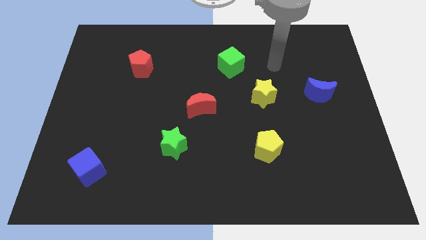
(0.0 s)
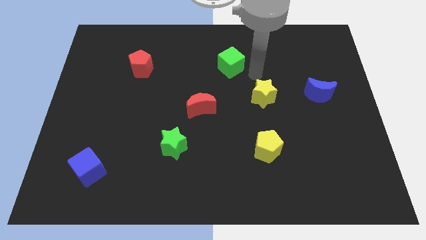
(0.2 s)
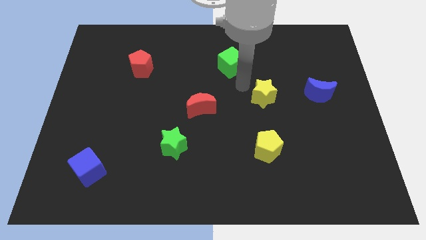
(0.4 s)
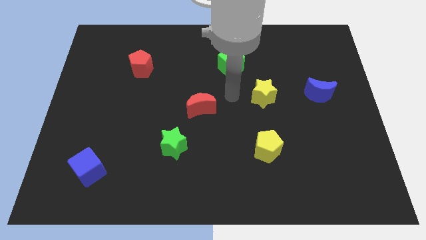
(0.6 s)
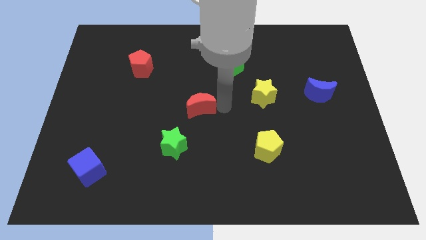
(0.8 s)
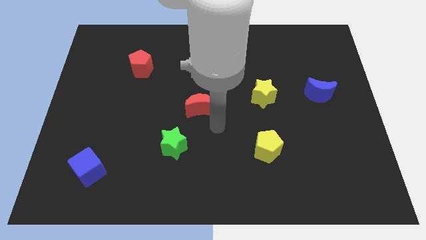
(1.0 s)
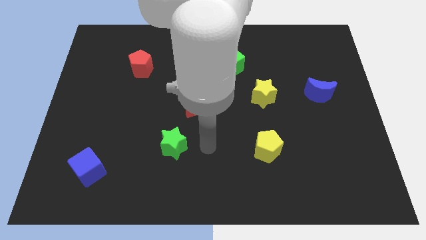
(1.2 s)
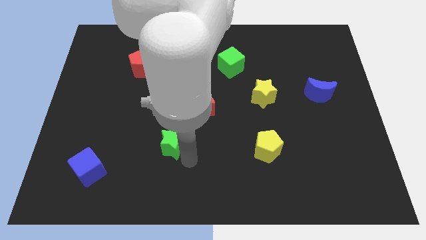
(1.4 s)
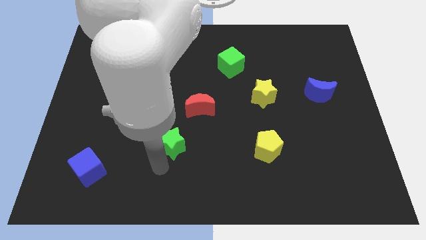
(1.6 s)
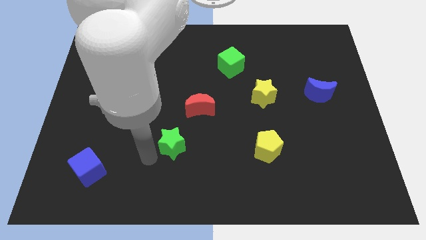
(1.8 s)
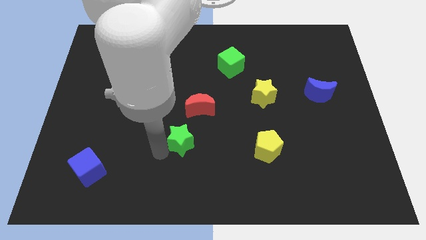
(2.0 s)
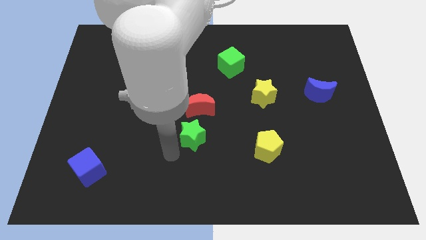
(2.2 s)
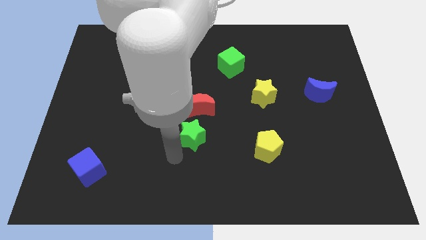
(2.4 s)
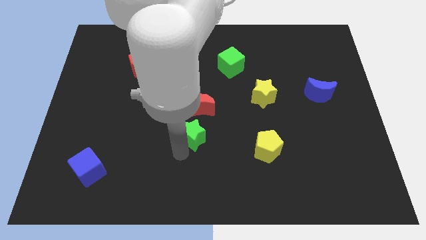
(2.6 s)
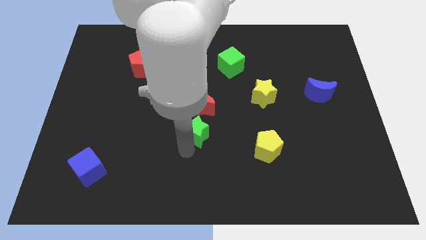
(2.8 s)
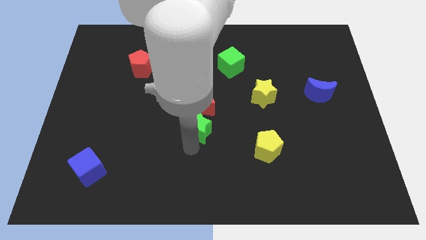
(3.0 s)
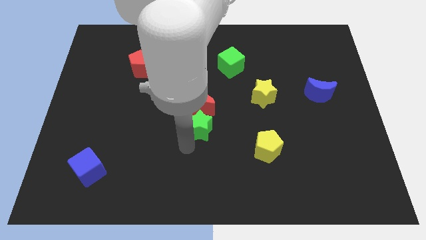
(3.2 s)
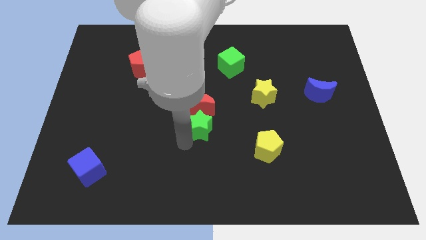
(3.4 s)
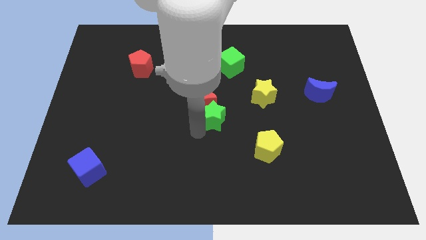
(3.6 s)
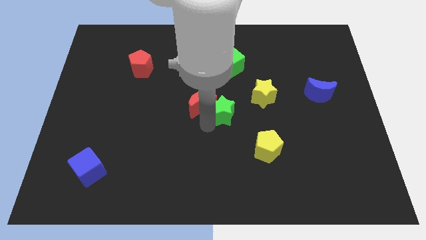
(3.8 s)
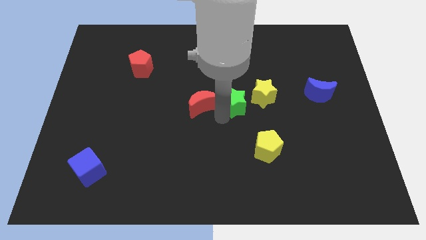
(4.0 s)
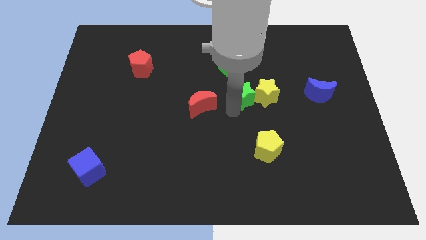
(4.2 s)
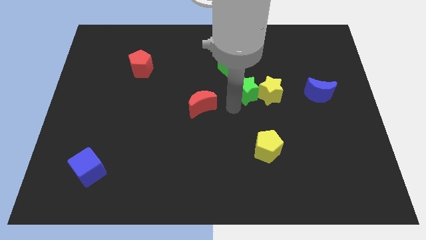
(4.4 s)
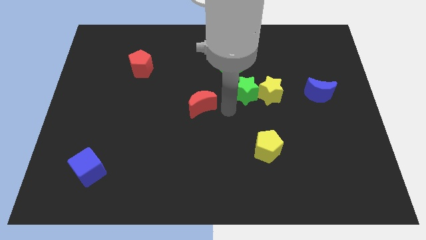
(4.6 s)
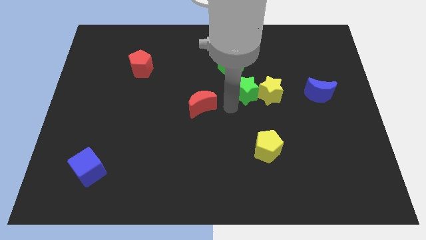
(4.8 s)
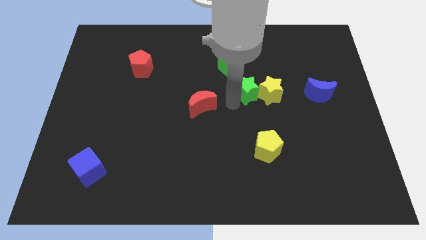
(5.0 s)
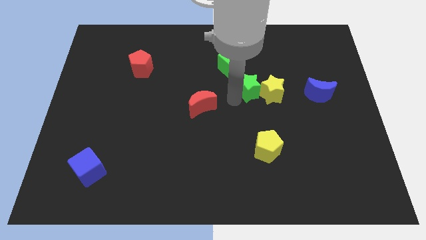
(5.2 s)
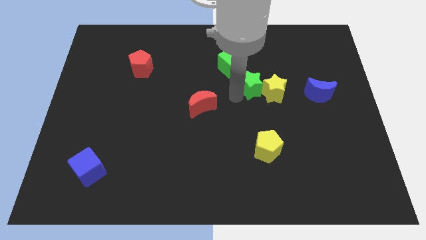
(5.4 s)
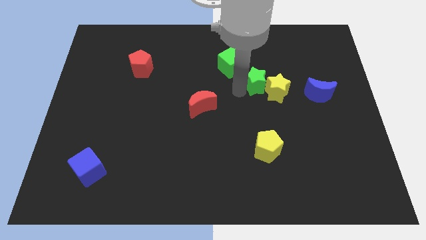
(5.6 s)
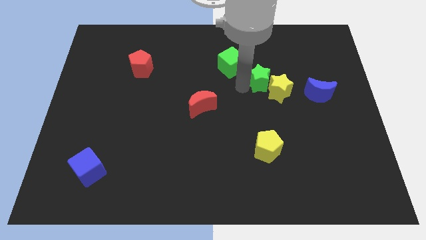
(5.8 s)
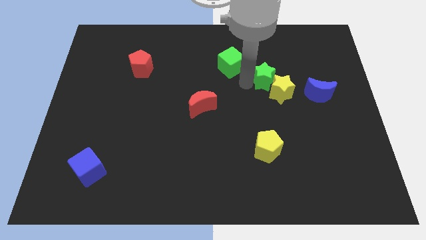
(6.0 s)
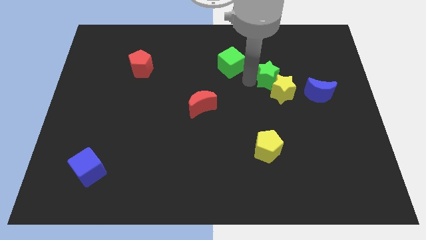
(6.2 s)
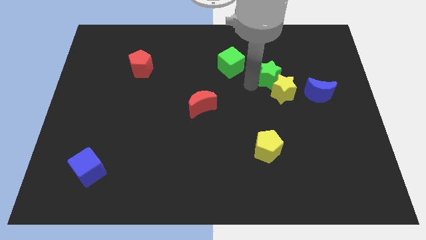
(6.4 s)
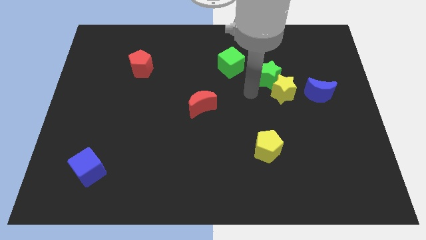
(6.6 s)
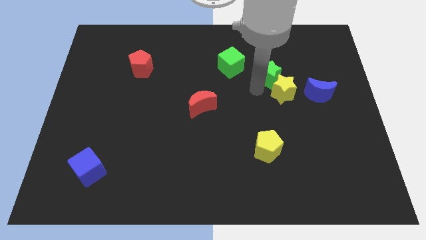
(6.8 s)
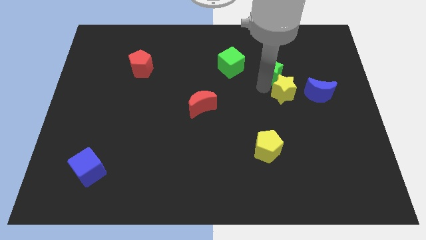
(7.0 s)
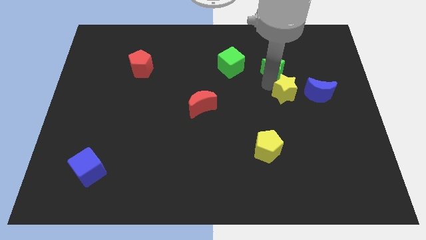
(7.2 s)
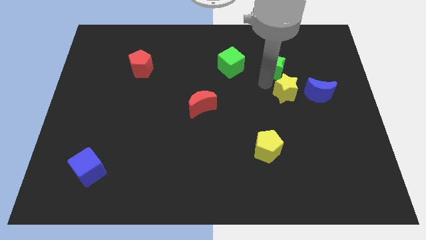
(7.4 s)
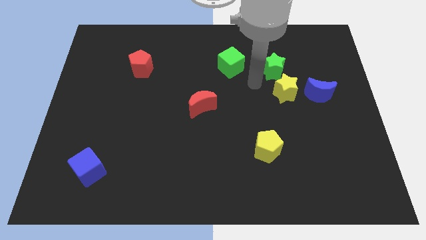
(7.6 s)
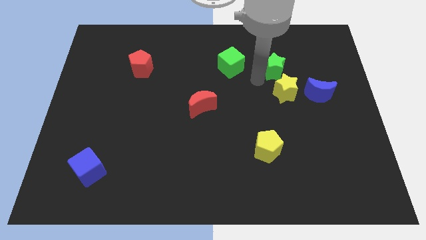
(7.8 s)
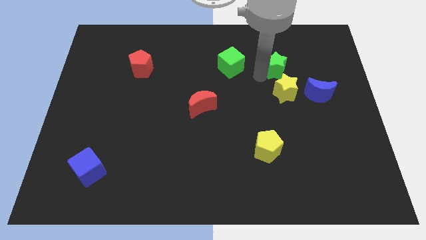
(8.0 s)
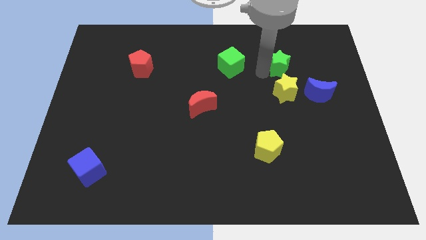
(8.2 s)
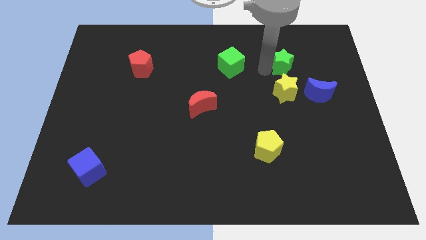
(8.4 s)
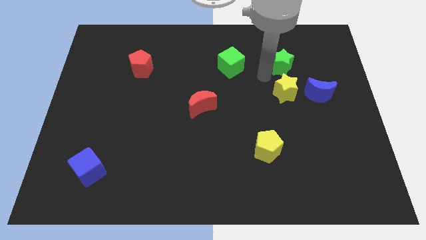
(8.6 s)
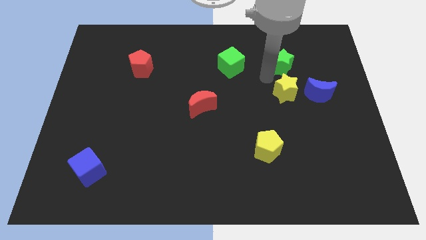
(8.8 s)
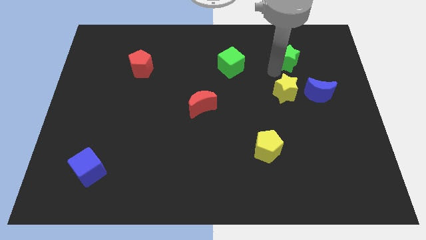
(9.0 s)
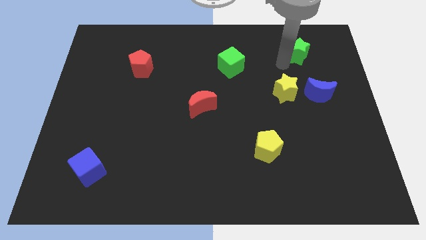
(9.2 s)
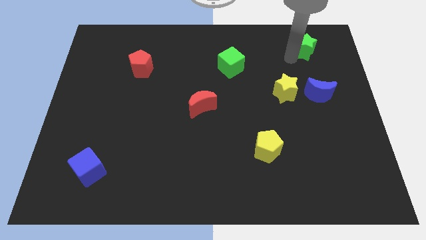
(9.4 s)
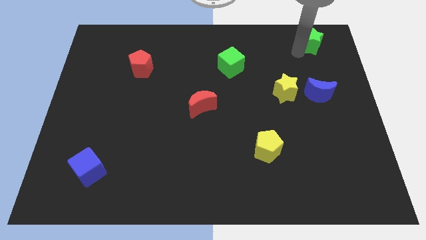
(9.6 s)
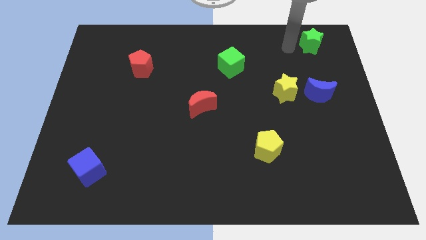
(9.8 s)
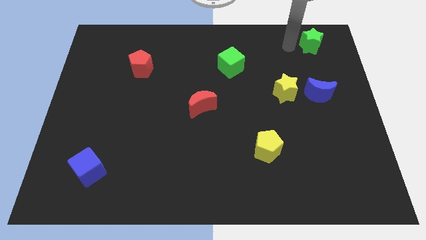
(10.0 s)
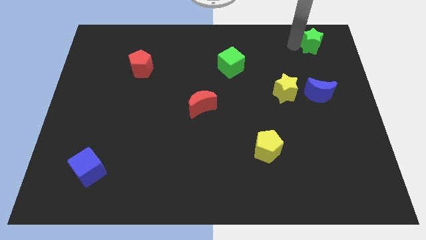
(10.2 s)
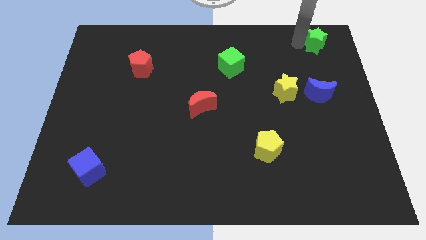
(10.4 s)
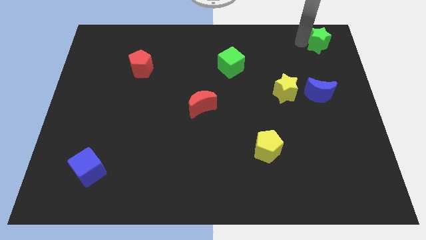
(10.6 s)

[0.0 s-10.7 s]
move the green star to the top right

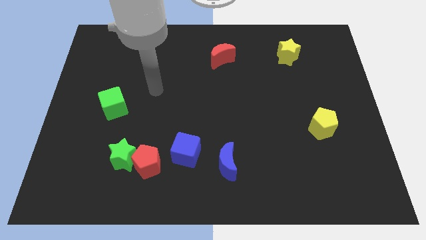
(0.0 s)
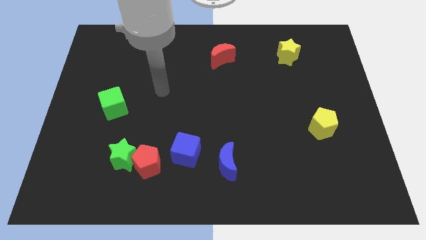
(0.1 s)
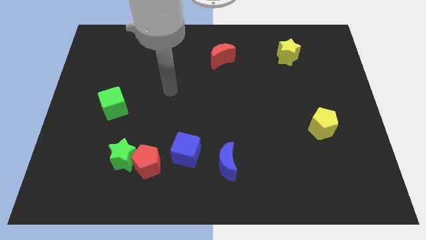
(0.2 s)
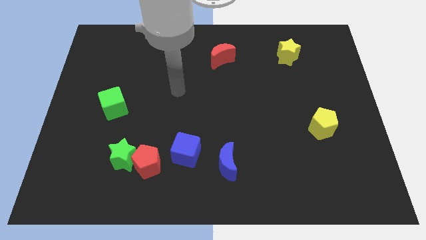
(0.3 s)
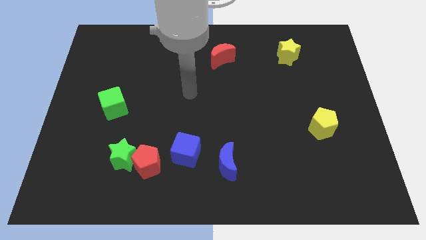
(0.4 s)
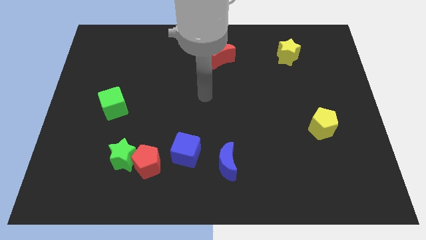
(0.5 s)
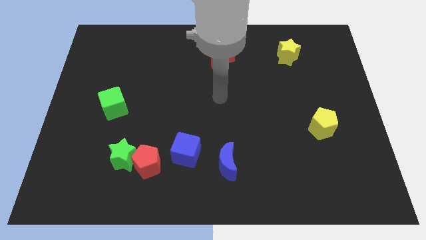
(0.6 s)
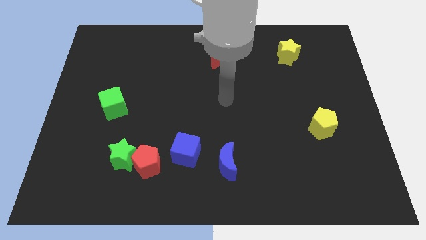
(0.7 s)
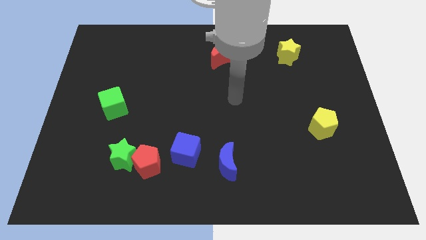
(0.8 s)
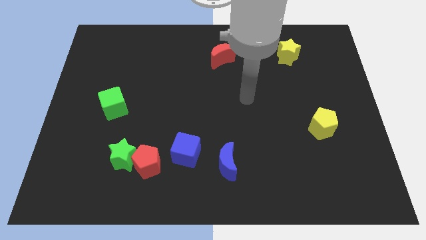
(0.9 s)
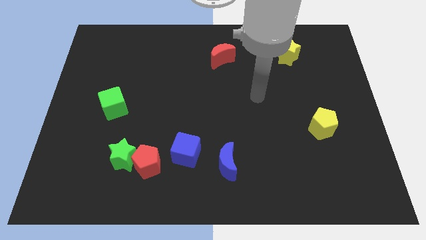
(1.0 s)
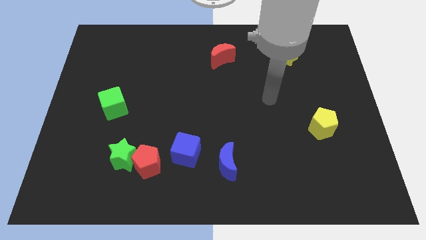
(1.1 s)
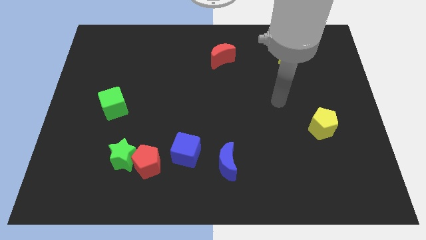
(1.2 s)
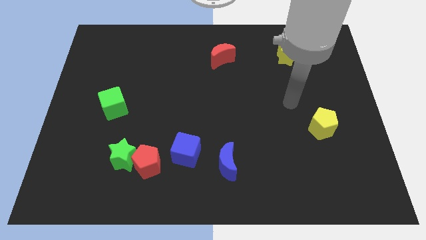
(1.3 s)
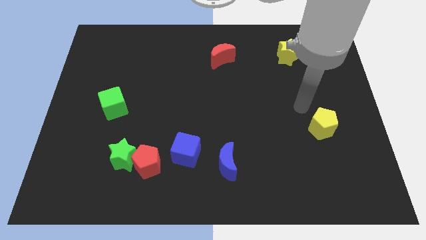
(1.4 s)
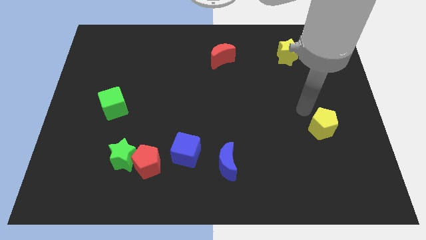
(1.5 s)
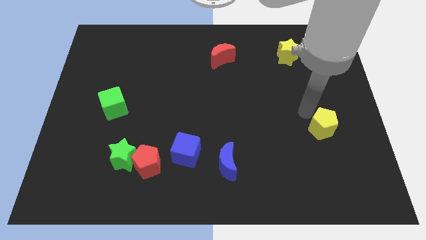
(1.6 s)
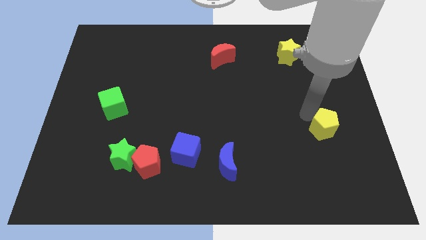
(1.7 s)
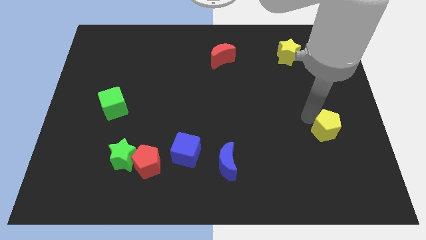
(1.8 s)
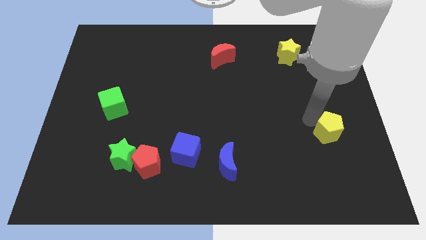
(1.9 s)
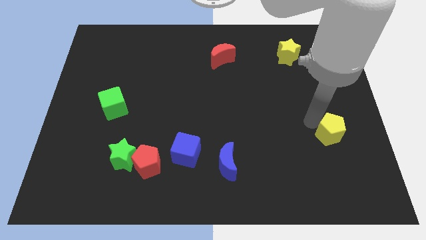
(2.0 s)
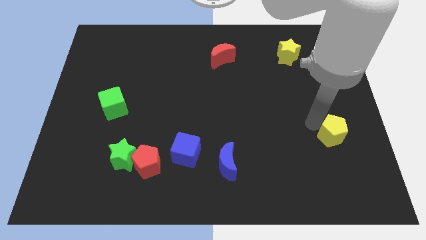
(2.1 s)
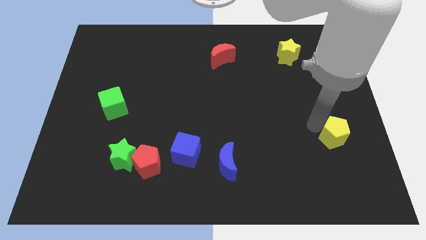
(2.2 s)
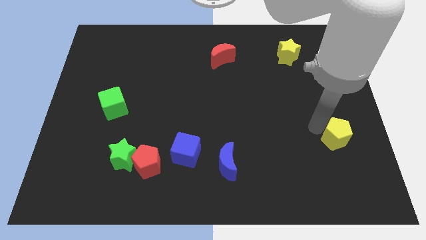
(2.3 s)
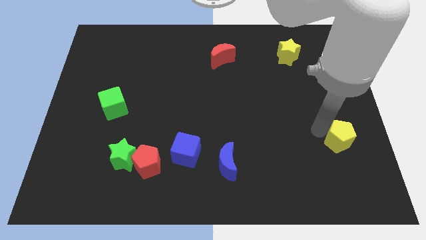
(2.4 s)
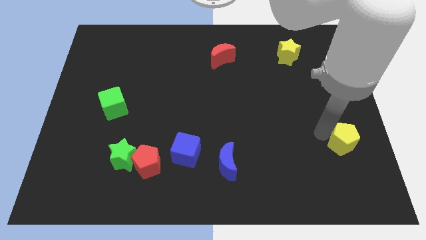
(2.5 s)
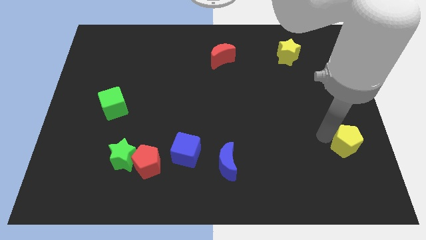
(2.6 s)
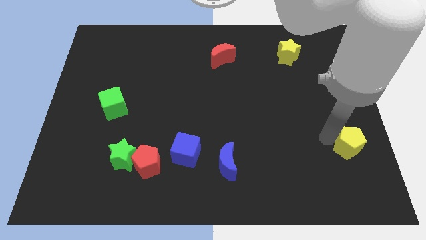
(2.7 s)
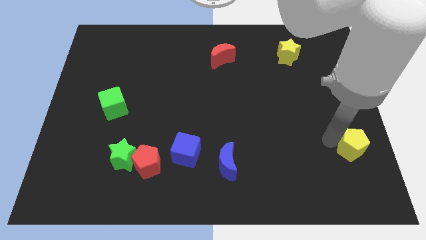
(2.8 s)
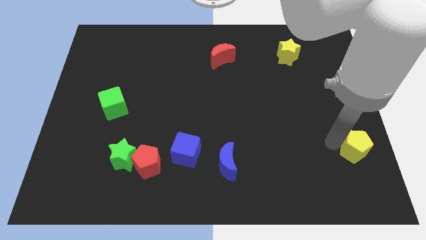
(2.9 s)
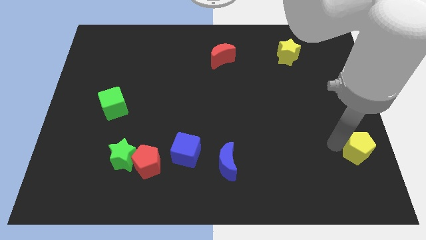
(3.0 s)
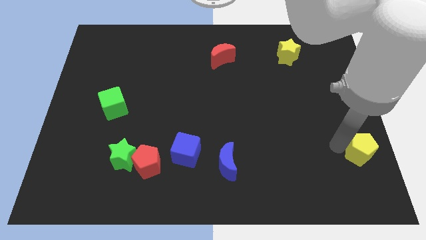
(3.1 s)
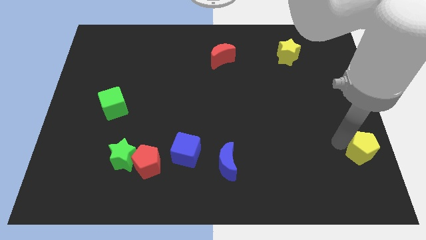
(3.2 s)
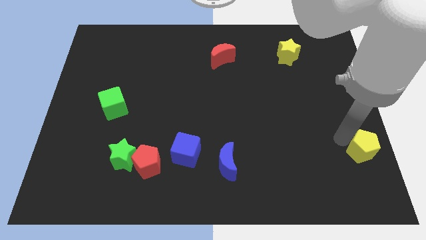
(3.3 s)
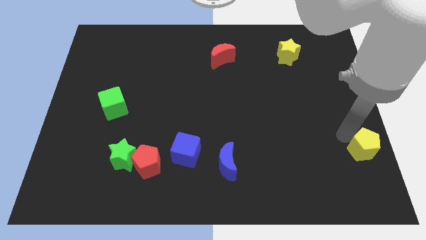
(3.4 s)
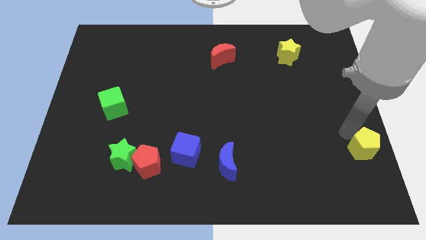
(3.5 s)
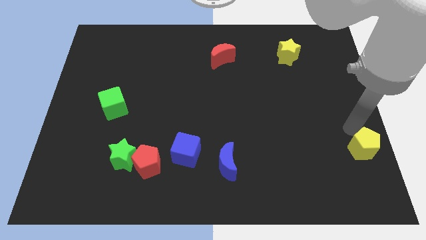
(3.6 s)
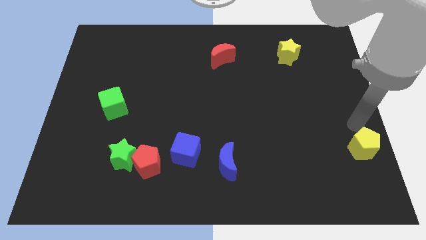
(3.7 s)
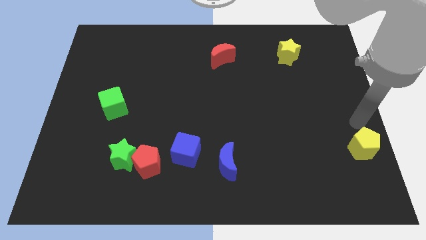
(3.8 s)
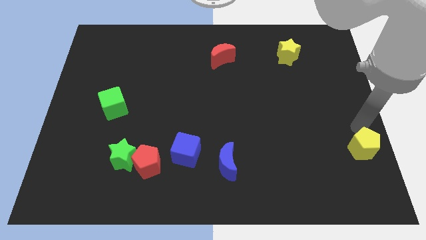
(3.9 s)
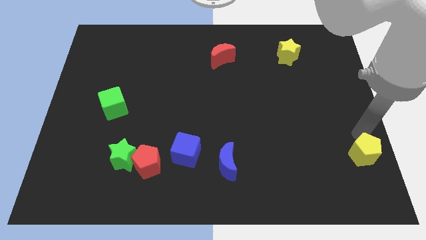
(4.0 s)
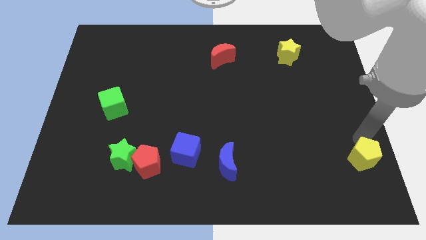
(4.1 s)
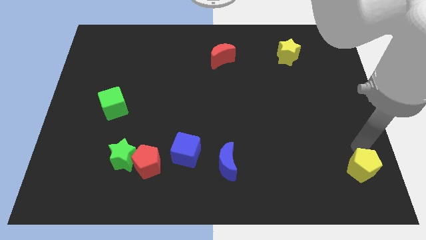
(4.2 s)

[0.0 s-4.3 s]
put the yellow pentagon to the lower right corner
